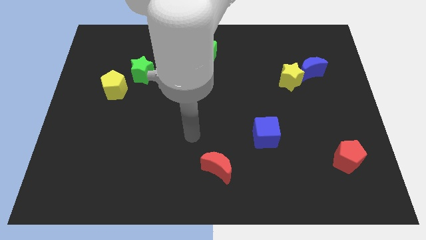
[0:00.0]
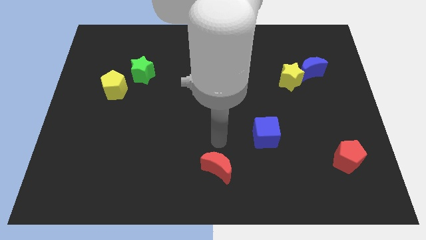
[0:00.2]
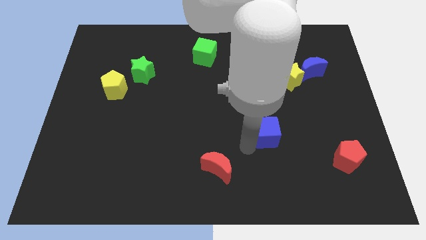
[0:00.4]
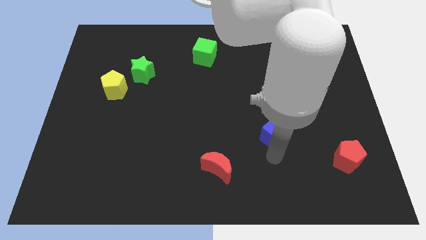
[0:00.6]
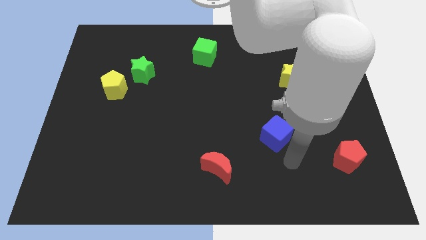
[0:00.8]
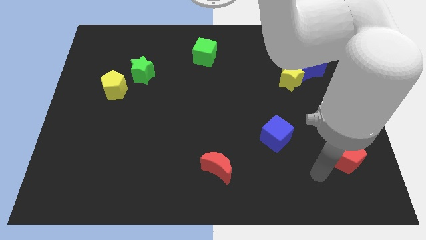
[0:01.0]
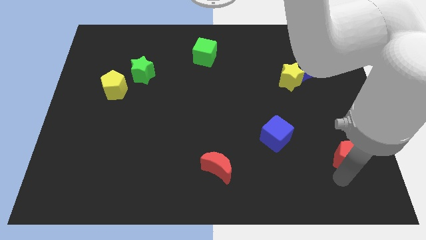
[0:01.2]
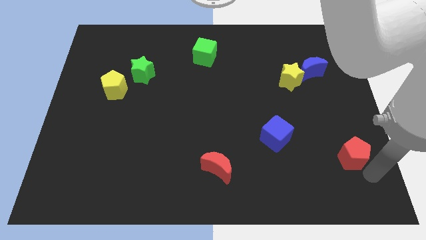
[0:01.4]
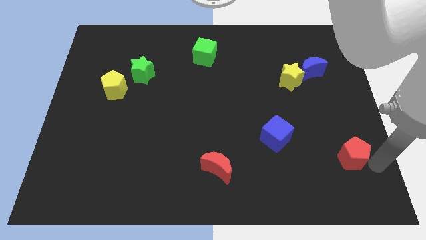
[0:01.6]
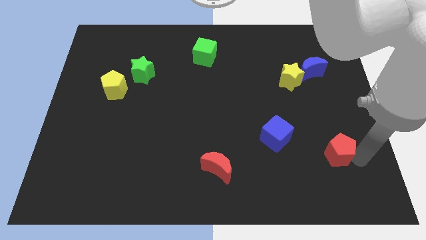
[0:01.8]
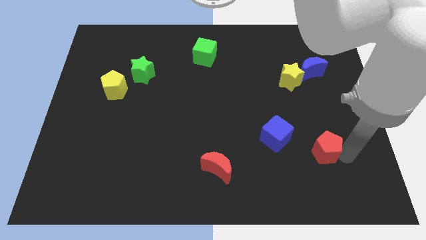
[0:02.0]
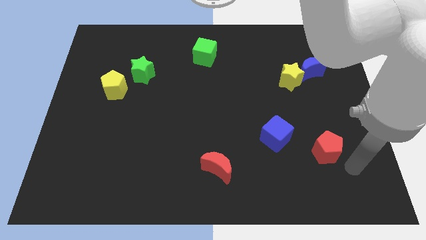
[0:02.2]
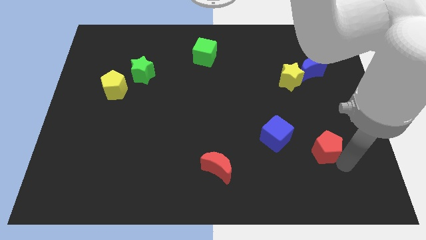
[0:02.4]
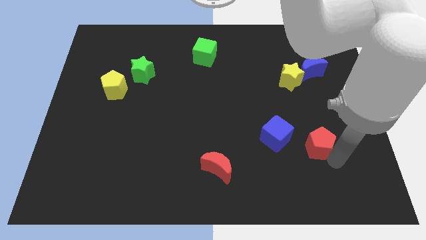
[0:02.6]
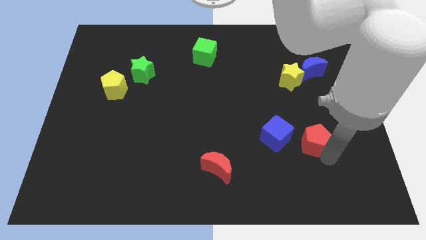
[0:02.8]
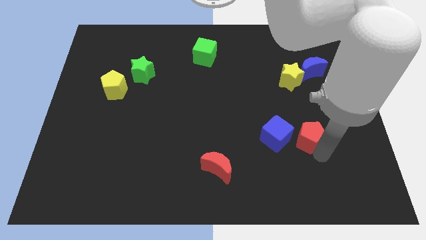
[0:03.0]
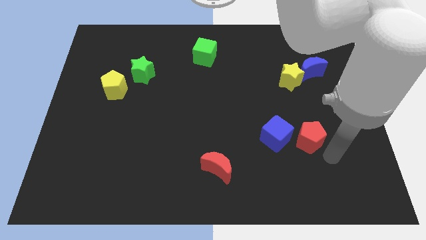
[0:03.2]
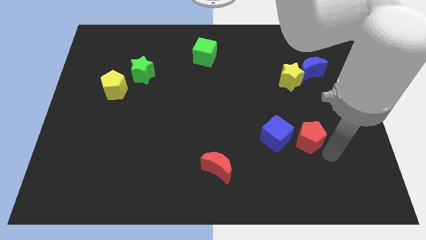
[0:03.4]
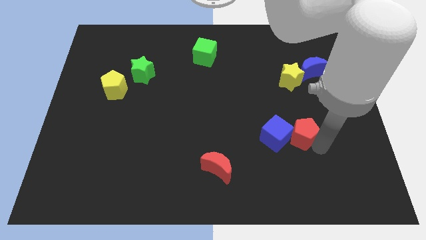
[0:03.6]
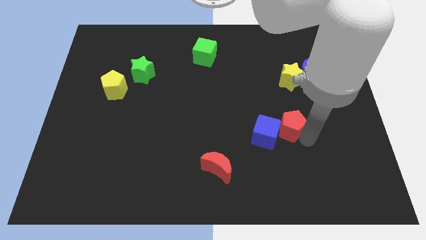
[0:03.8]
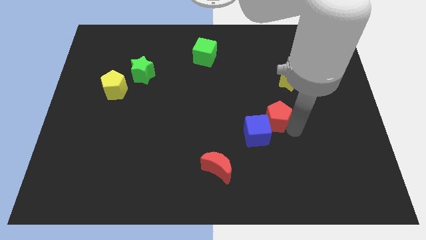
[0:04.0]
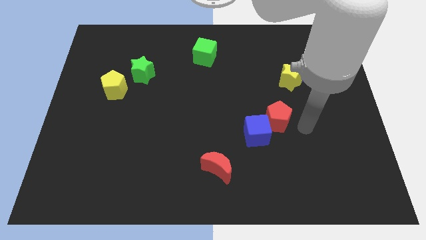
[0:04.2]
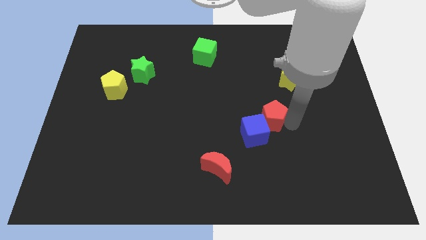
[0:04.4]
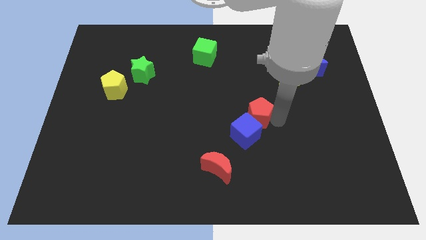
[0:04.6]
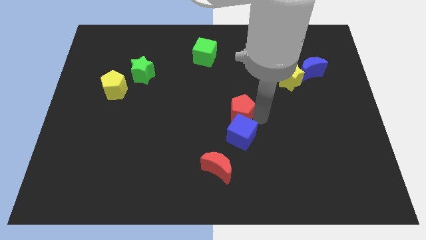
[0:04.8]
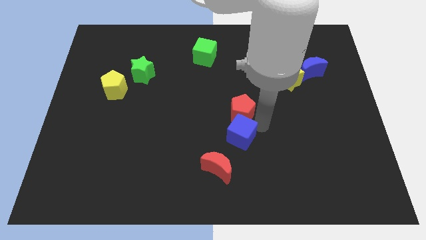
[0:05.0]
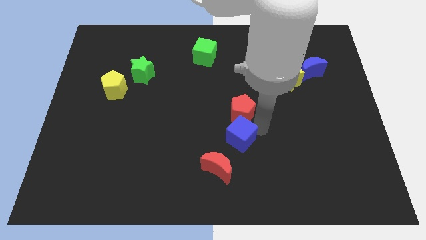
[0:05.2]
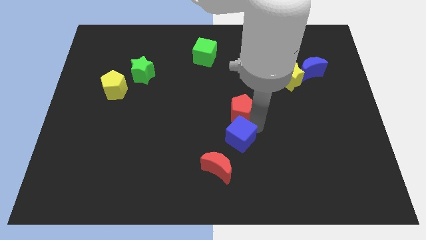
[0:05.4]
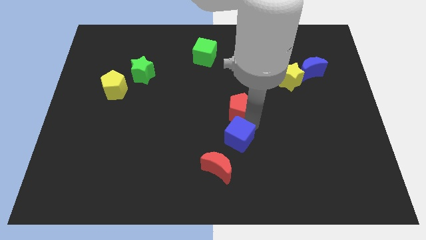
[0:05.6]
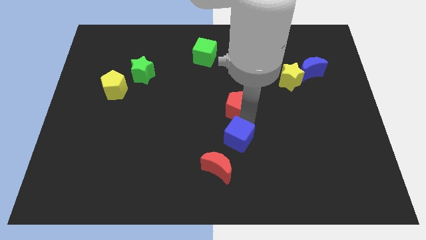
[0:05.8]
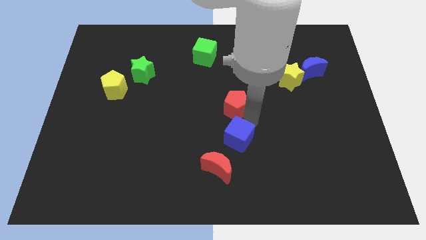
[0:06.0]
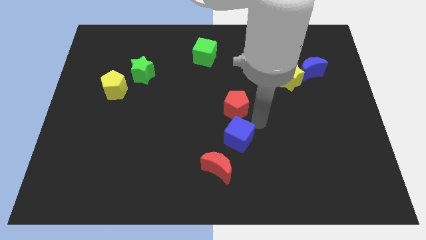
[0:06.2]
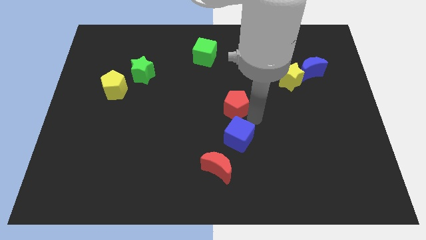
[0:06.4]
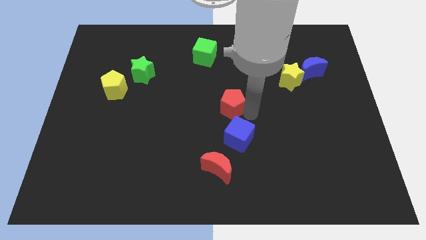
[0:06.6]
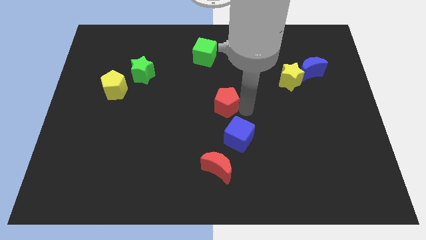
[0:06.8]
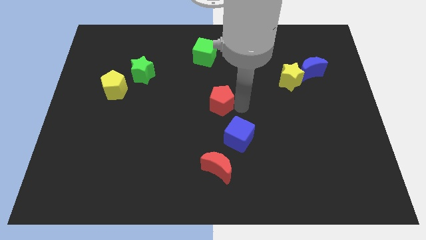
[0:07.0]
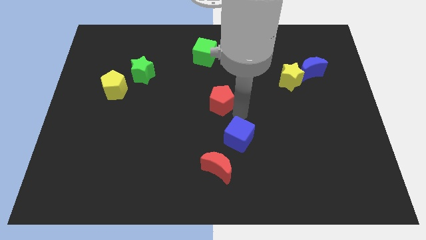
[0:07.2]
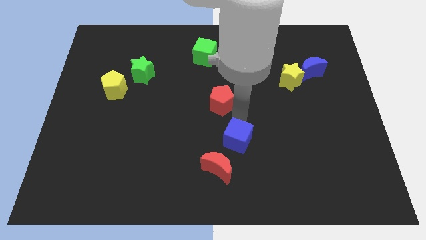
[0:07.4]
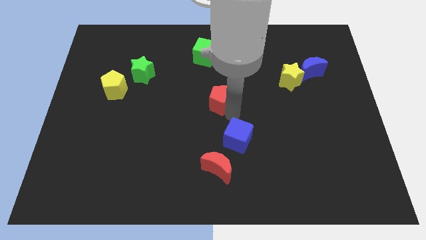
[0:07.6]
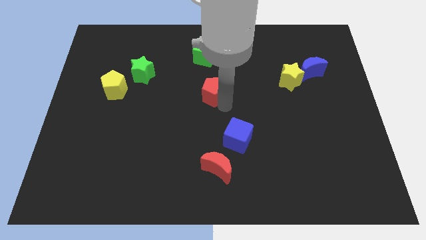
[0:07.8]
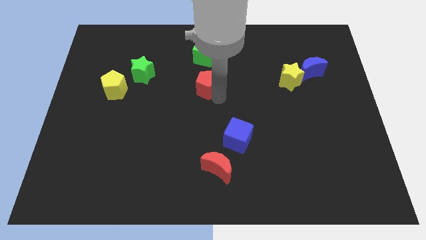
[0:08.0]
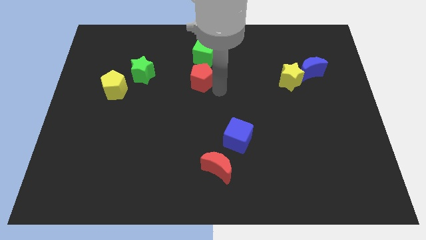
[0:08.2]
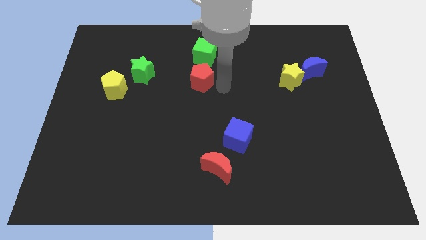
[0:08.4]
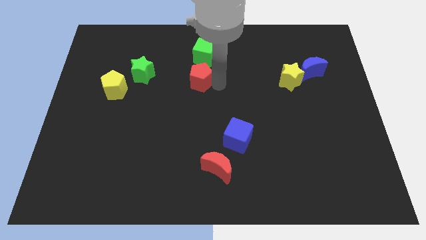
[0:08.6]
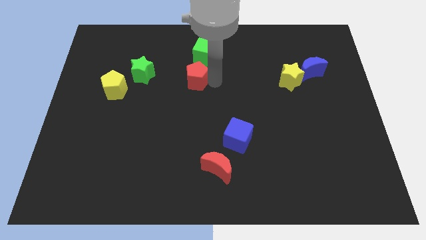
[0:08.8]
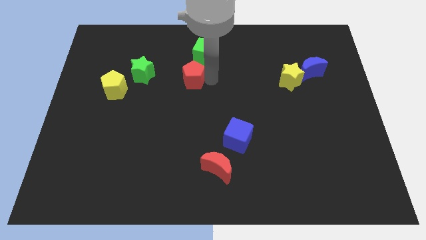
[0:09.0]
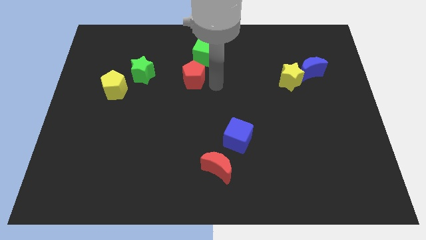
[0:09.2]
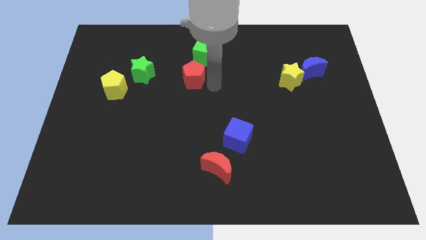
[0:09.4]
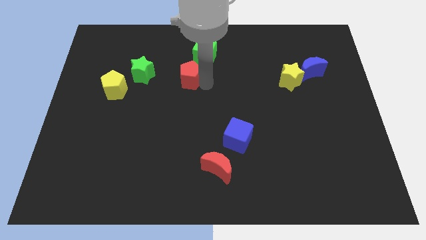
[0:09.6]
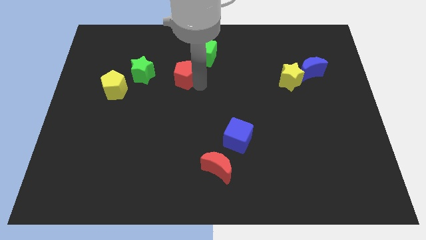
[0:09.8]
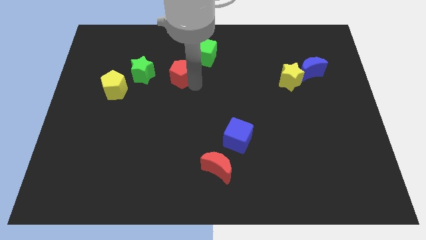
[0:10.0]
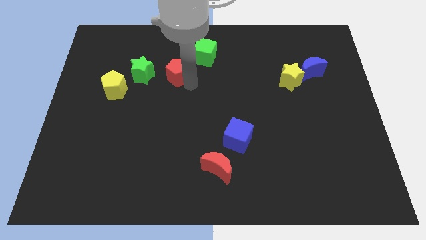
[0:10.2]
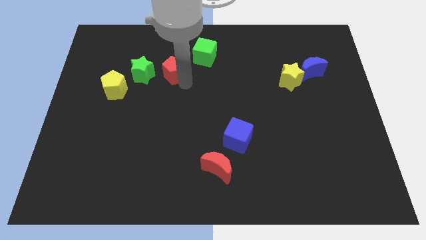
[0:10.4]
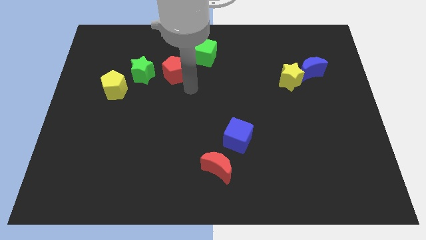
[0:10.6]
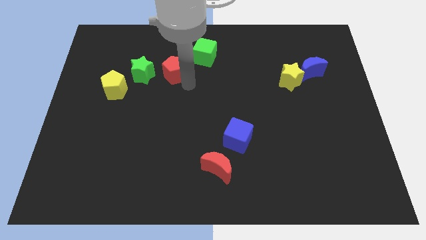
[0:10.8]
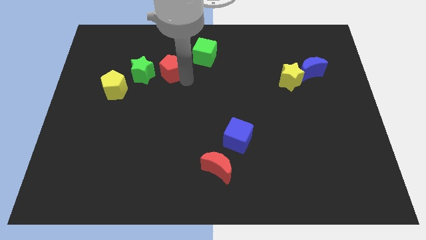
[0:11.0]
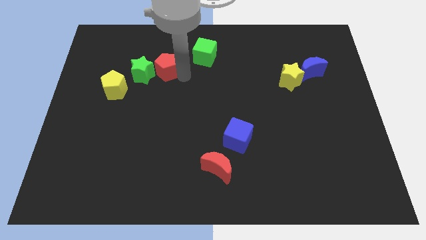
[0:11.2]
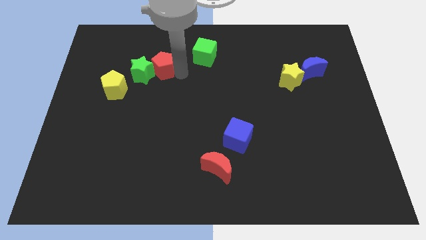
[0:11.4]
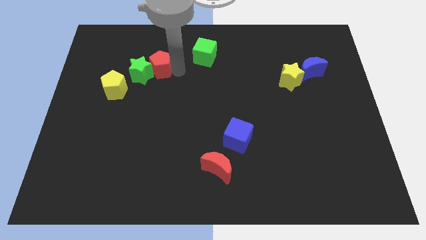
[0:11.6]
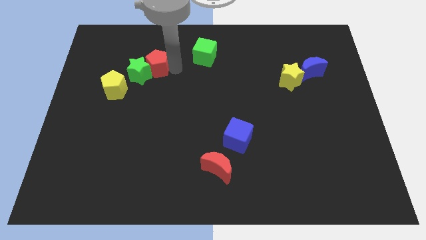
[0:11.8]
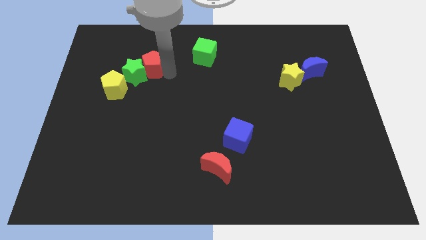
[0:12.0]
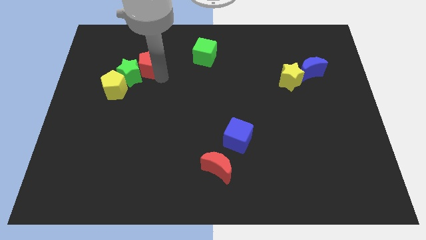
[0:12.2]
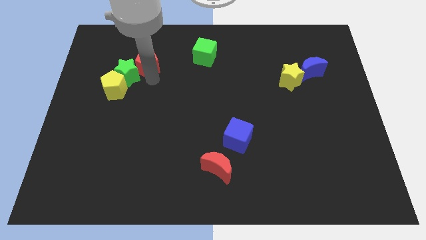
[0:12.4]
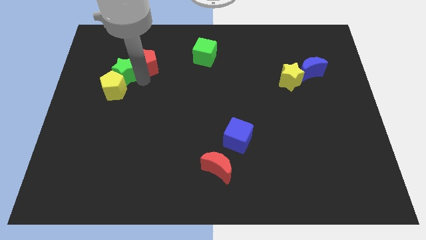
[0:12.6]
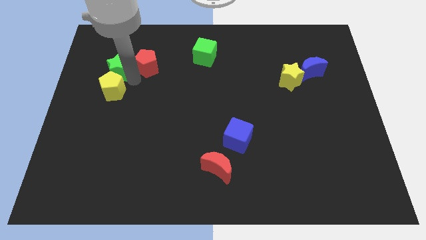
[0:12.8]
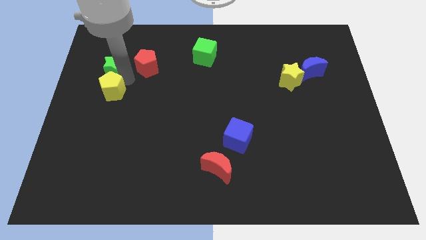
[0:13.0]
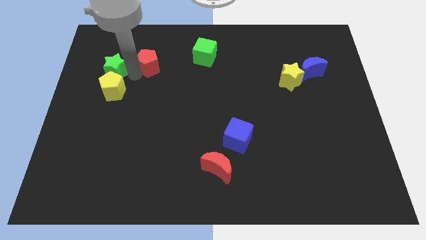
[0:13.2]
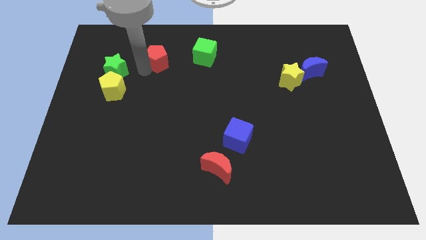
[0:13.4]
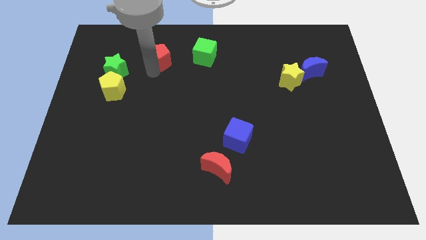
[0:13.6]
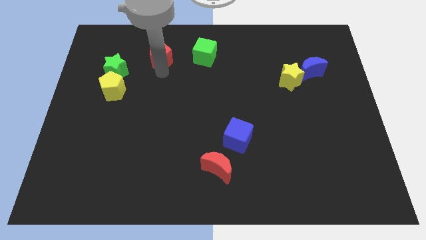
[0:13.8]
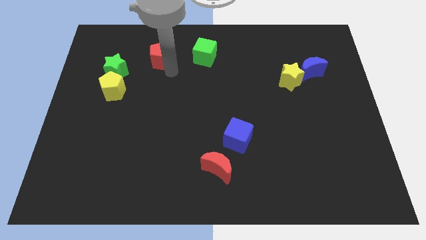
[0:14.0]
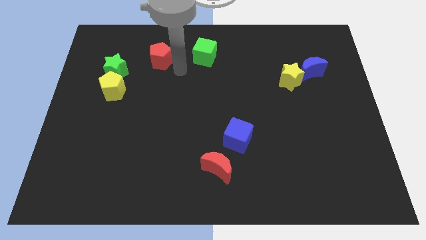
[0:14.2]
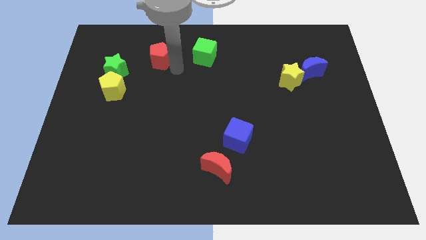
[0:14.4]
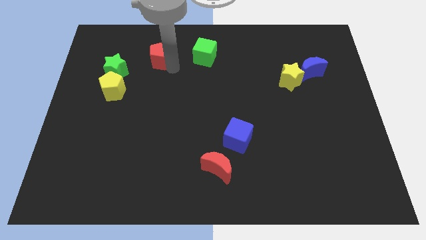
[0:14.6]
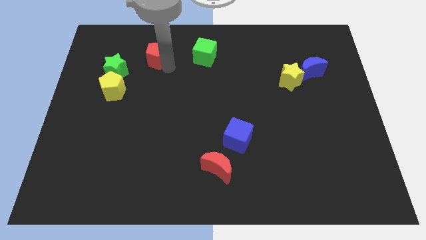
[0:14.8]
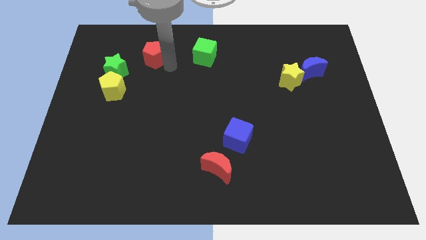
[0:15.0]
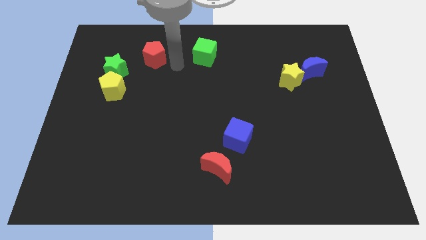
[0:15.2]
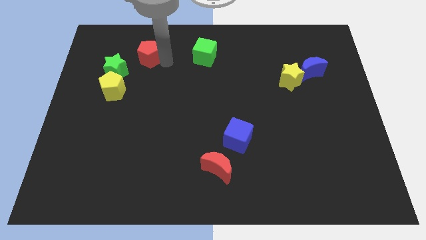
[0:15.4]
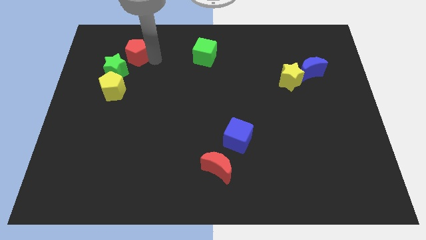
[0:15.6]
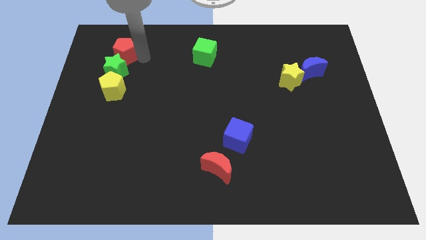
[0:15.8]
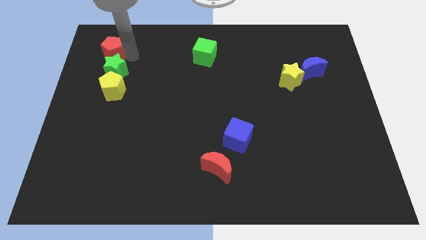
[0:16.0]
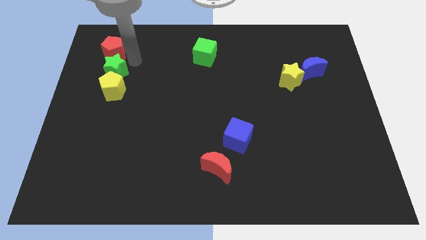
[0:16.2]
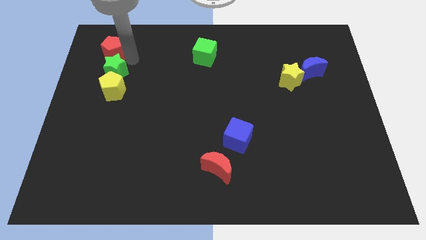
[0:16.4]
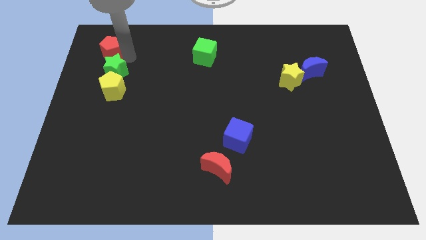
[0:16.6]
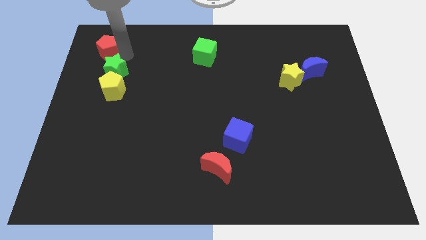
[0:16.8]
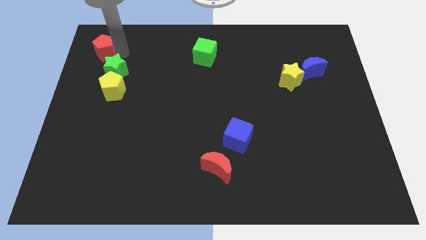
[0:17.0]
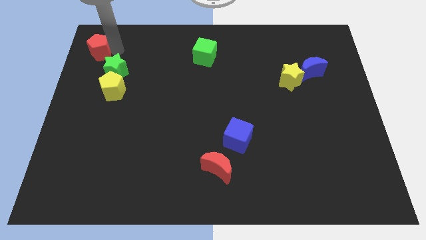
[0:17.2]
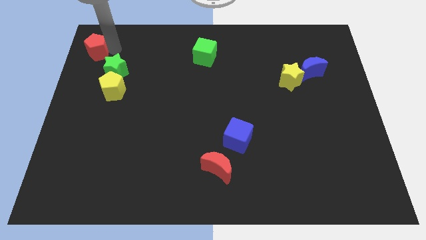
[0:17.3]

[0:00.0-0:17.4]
put the red pentagon to the upper left corner
